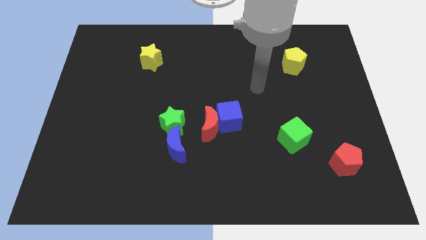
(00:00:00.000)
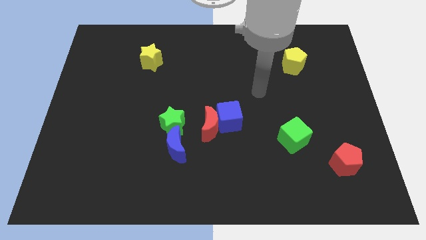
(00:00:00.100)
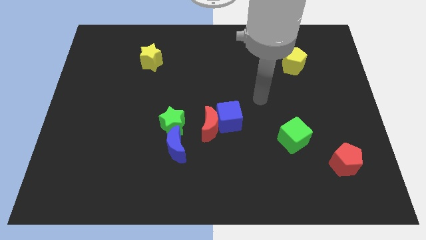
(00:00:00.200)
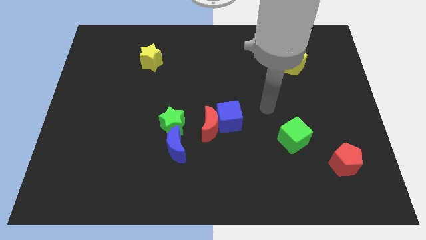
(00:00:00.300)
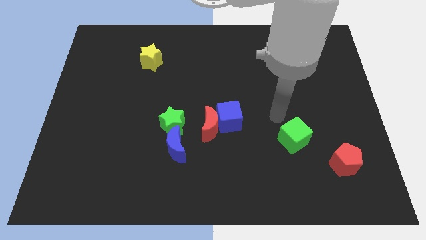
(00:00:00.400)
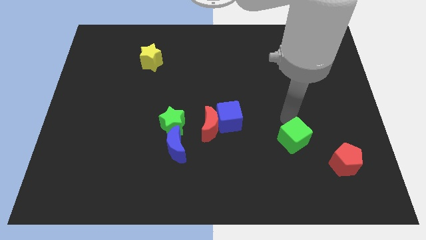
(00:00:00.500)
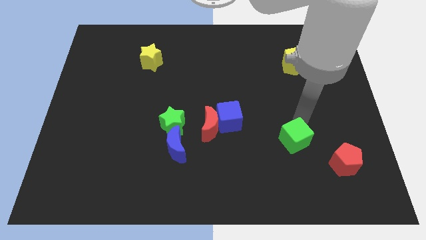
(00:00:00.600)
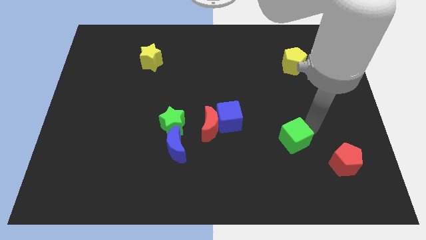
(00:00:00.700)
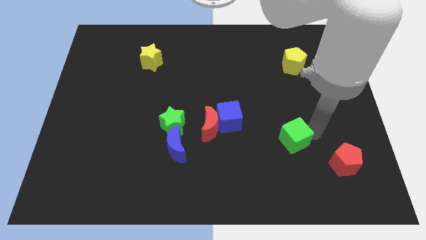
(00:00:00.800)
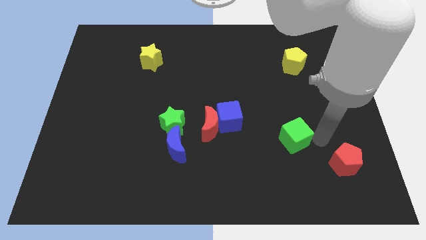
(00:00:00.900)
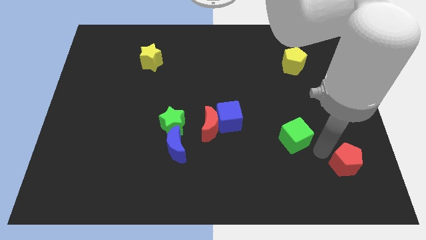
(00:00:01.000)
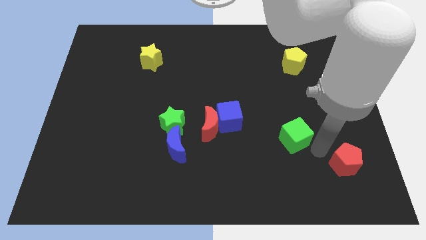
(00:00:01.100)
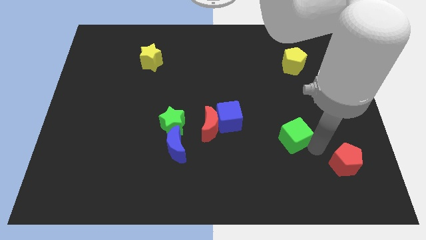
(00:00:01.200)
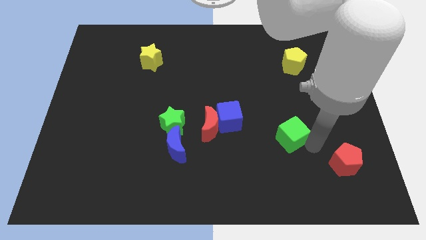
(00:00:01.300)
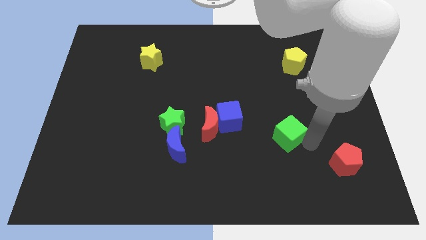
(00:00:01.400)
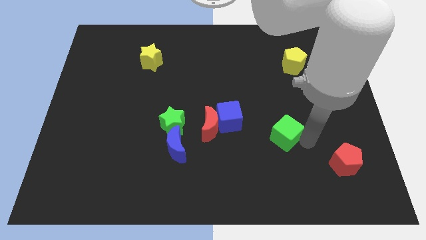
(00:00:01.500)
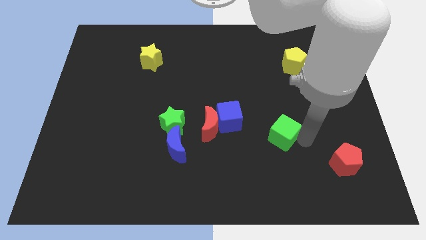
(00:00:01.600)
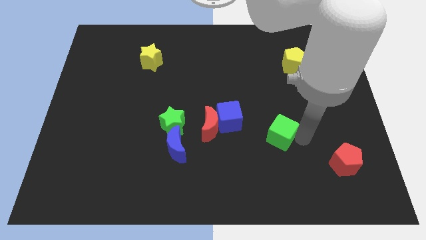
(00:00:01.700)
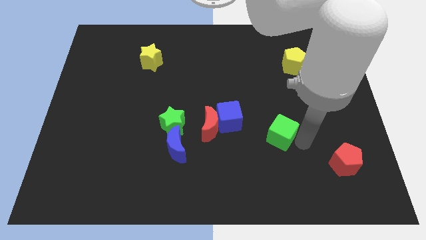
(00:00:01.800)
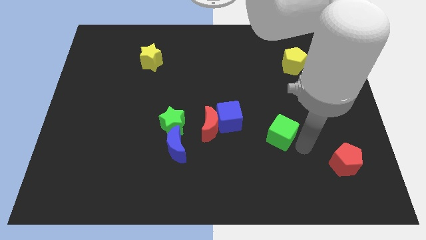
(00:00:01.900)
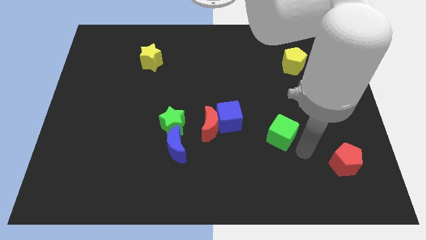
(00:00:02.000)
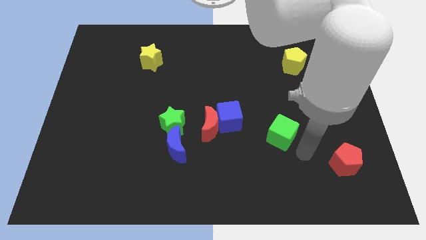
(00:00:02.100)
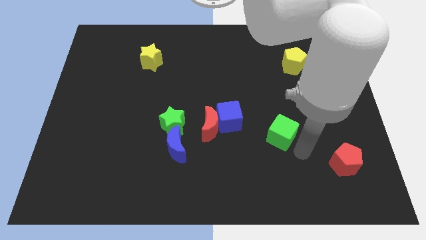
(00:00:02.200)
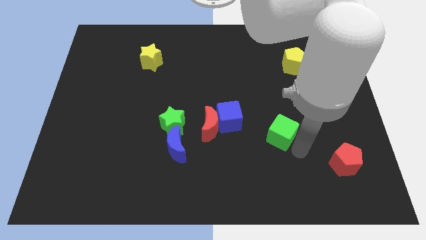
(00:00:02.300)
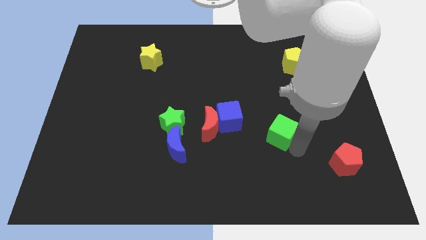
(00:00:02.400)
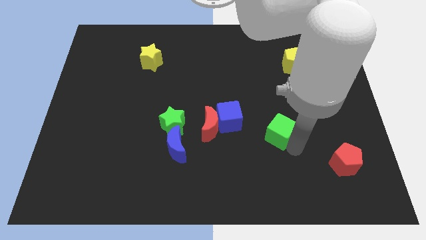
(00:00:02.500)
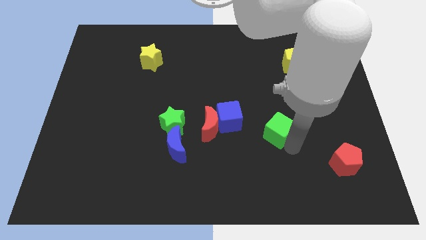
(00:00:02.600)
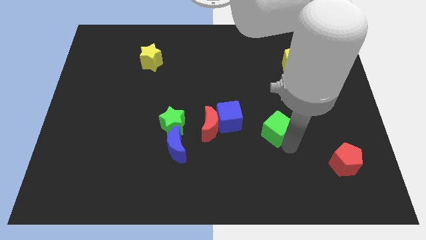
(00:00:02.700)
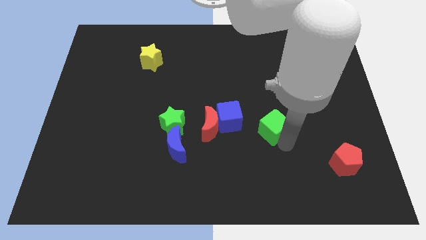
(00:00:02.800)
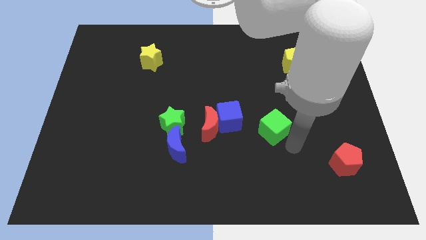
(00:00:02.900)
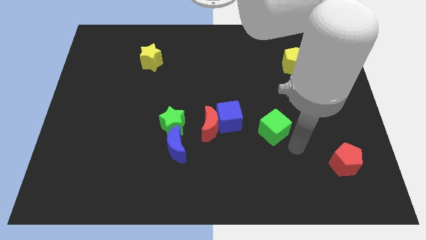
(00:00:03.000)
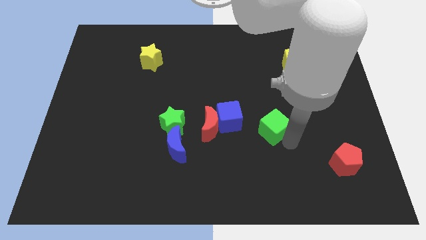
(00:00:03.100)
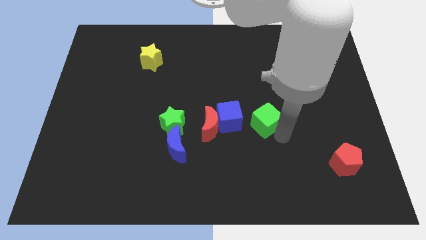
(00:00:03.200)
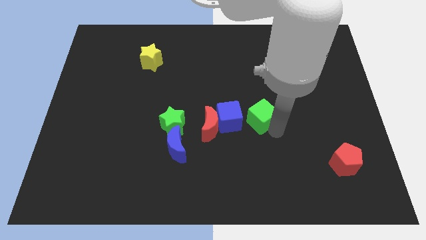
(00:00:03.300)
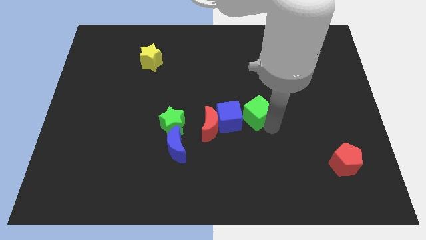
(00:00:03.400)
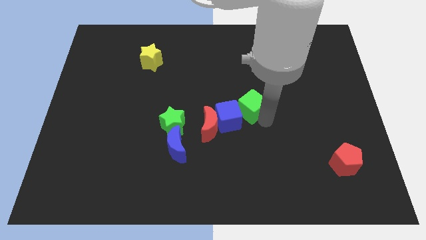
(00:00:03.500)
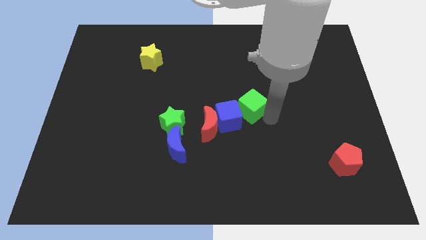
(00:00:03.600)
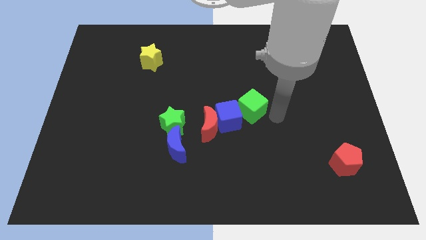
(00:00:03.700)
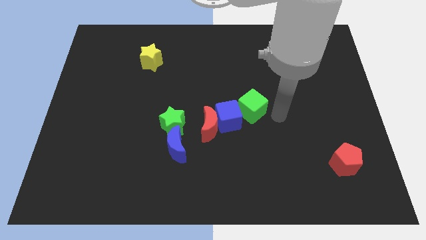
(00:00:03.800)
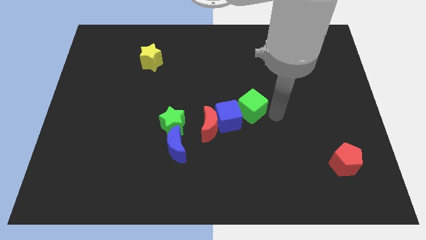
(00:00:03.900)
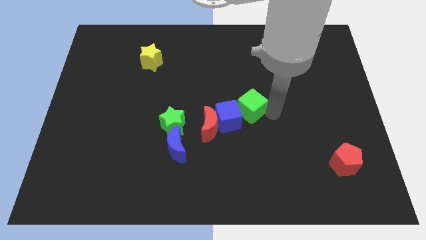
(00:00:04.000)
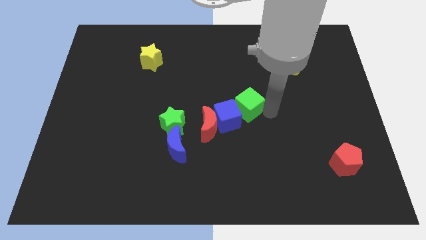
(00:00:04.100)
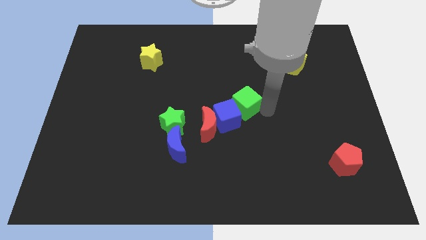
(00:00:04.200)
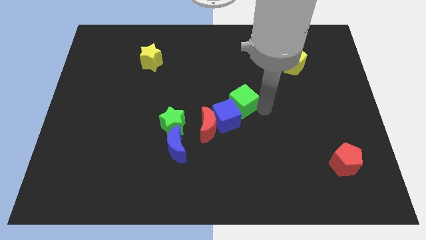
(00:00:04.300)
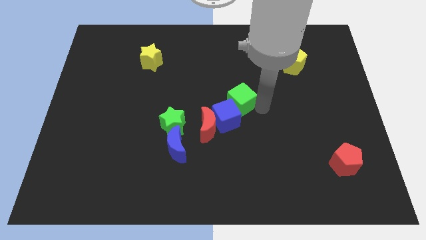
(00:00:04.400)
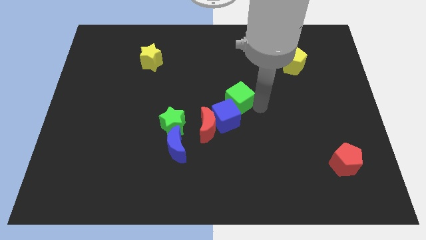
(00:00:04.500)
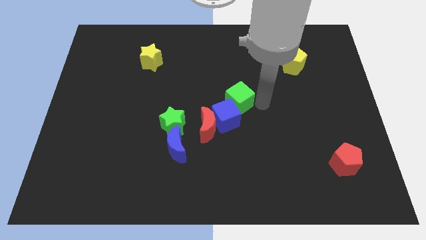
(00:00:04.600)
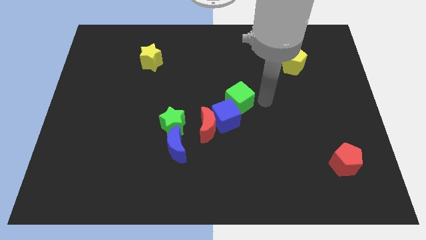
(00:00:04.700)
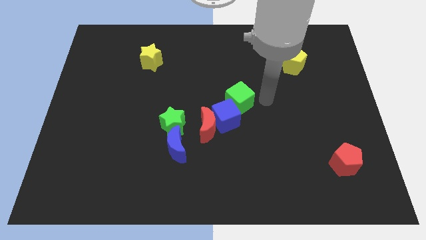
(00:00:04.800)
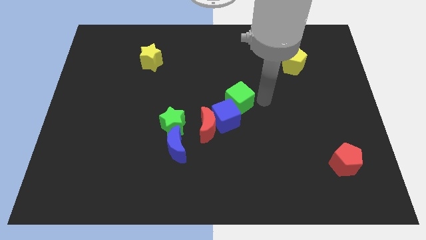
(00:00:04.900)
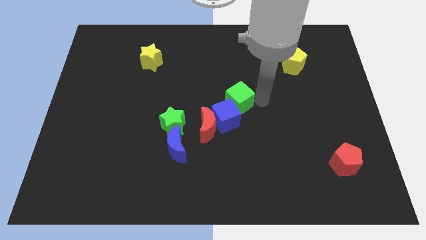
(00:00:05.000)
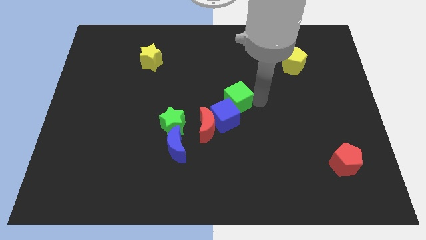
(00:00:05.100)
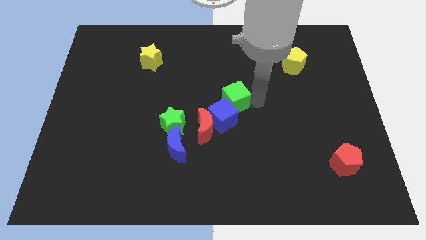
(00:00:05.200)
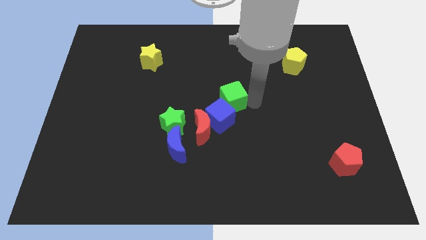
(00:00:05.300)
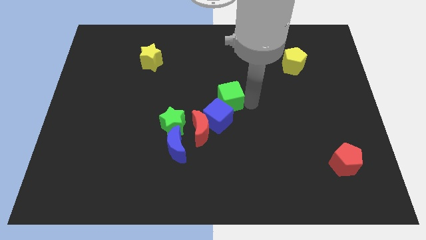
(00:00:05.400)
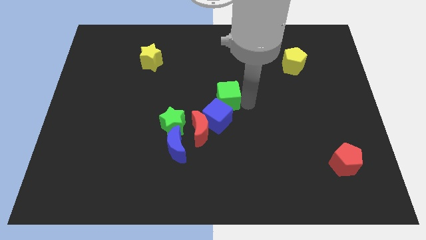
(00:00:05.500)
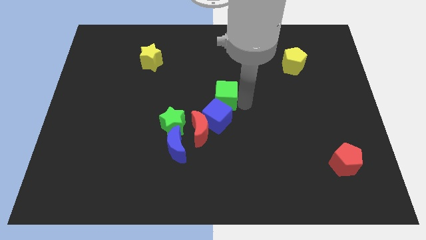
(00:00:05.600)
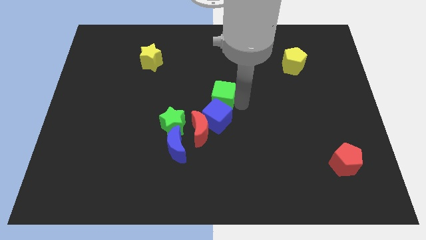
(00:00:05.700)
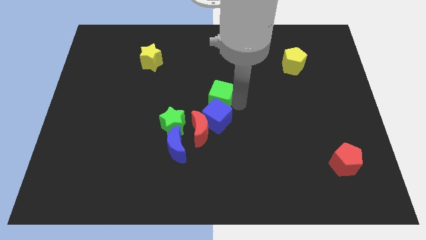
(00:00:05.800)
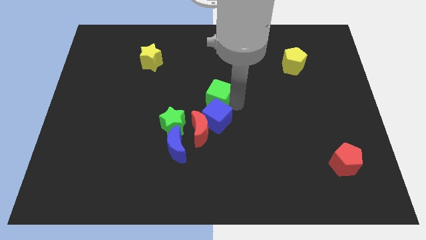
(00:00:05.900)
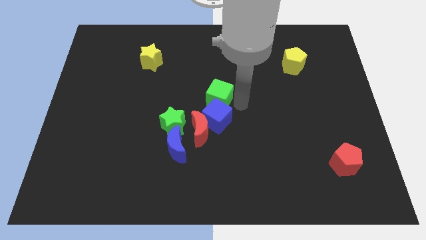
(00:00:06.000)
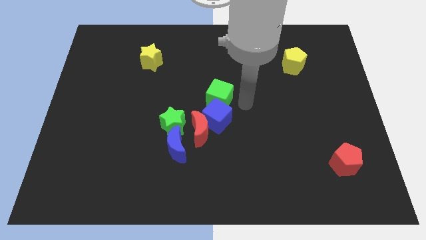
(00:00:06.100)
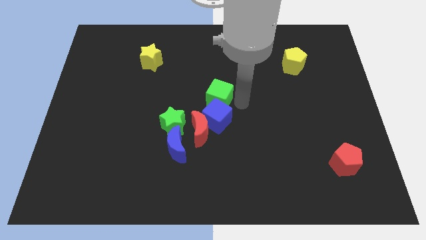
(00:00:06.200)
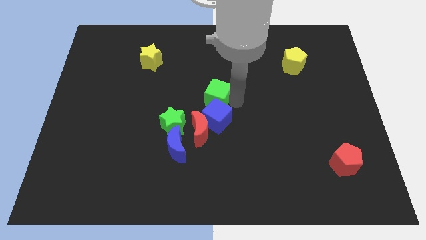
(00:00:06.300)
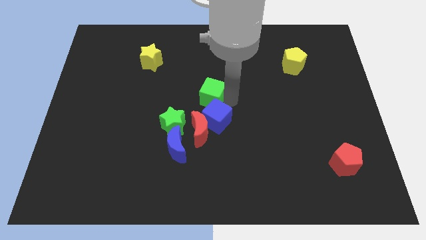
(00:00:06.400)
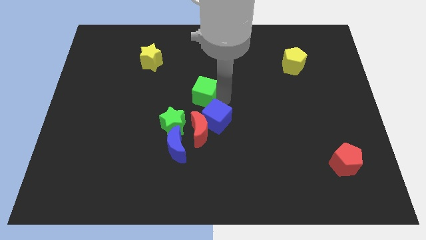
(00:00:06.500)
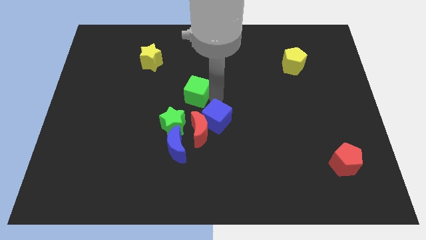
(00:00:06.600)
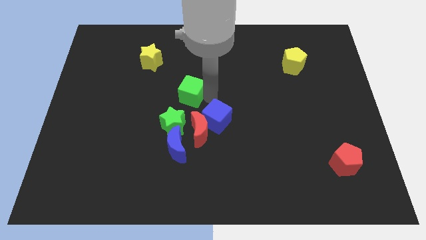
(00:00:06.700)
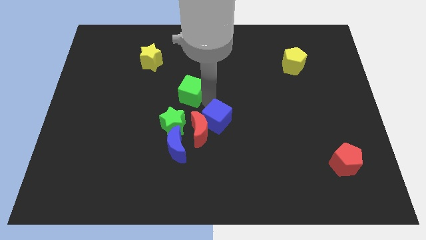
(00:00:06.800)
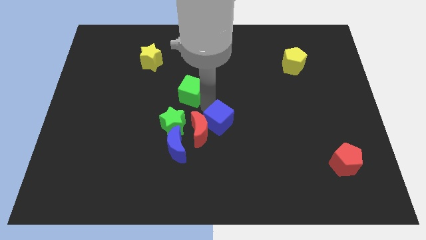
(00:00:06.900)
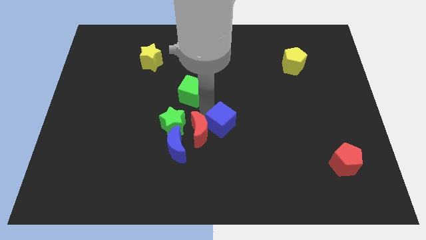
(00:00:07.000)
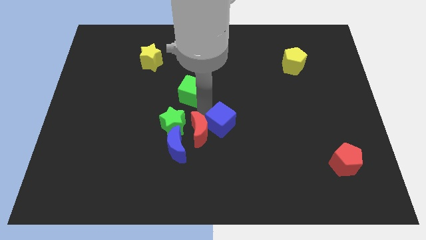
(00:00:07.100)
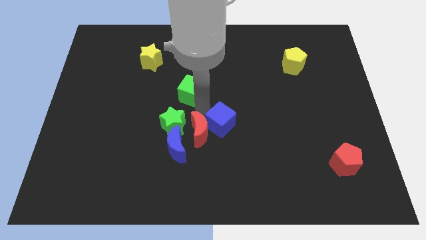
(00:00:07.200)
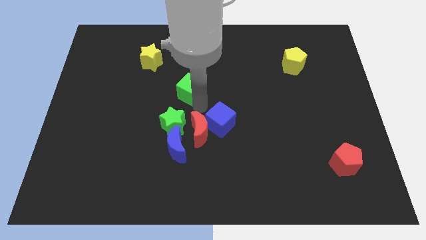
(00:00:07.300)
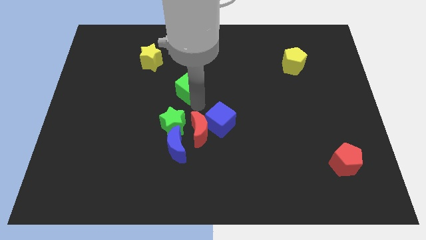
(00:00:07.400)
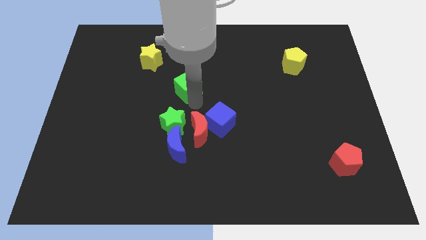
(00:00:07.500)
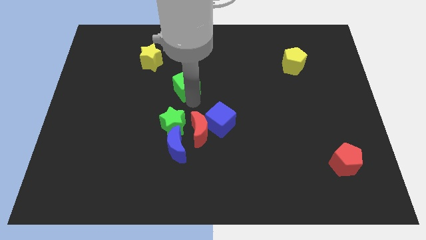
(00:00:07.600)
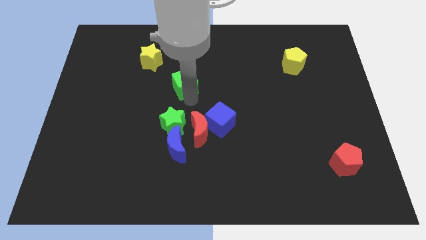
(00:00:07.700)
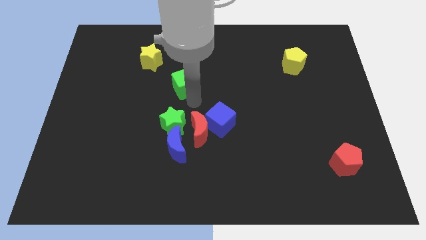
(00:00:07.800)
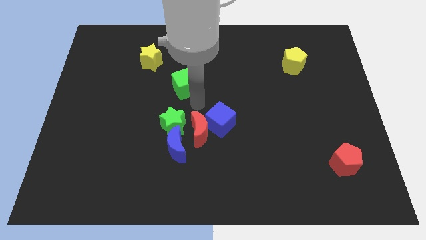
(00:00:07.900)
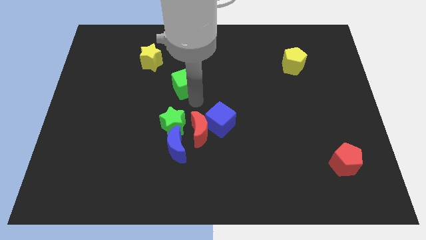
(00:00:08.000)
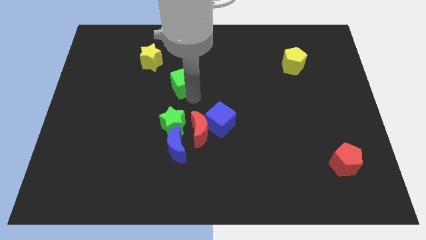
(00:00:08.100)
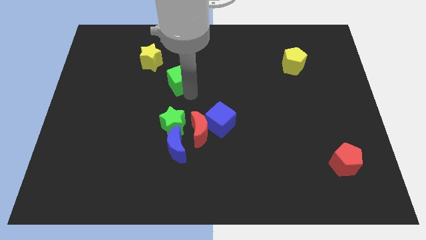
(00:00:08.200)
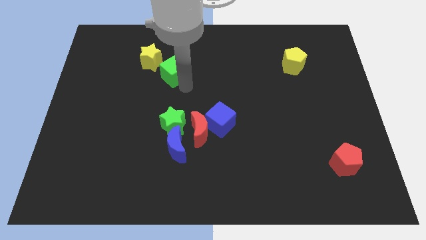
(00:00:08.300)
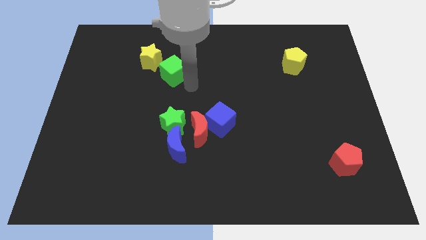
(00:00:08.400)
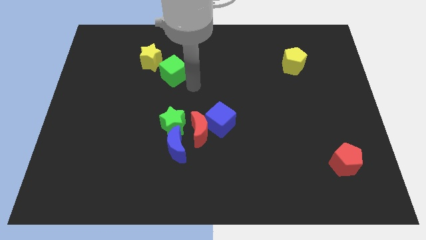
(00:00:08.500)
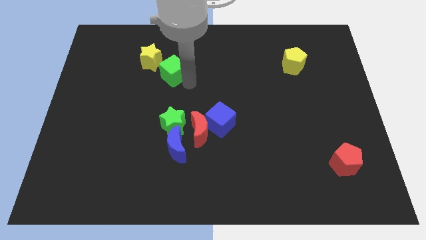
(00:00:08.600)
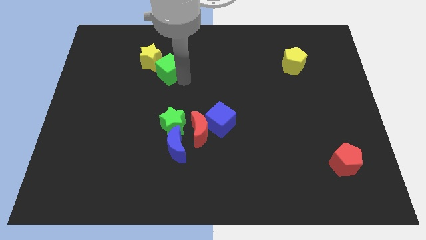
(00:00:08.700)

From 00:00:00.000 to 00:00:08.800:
move the green cube to the yellow star
